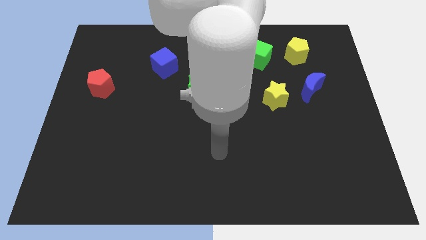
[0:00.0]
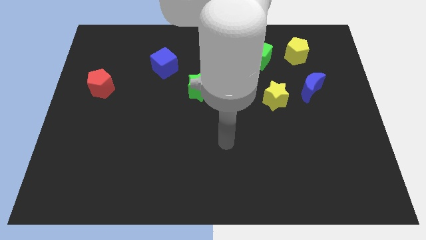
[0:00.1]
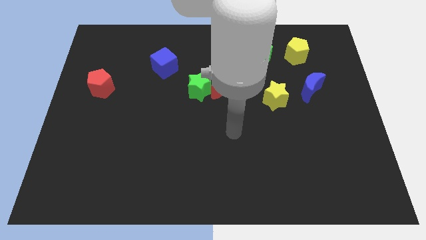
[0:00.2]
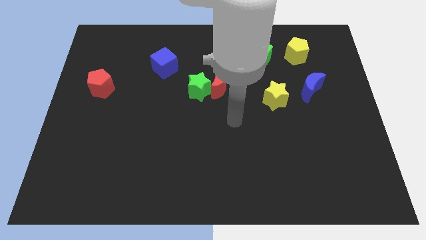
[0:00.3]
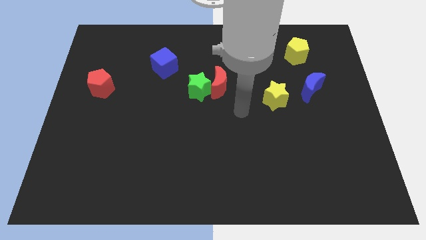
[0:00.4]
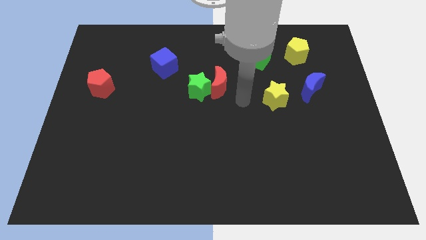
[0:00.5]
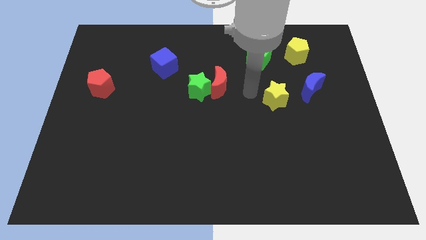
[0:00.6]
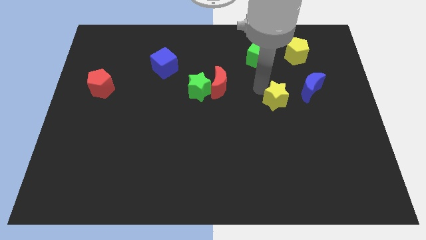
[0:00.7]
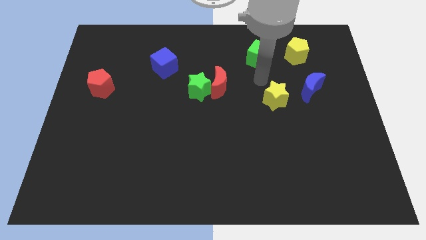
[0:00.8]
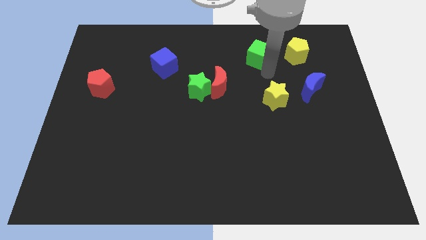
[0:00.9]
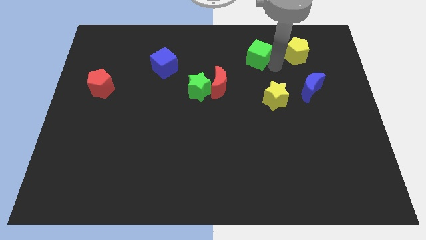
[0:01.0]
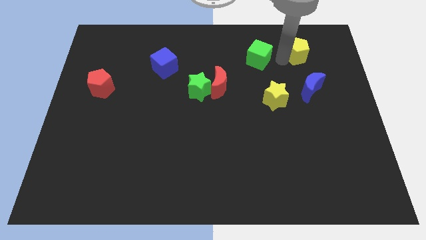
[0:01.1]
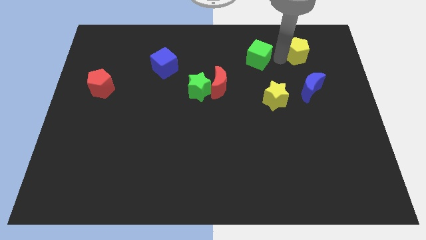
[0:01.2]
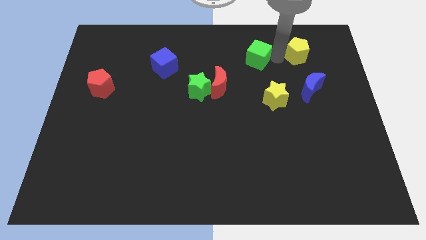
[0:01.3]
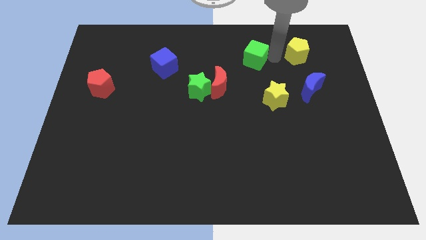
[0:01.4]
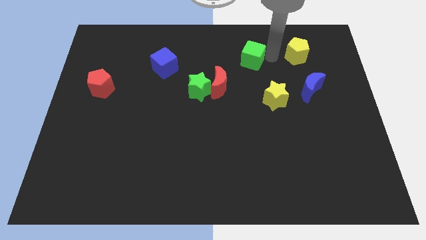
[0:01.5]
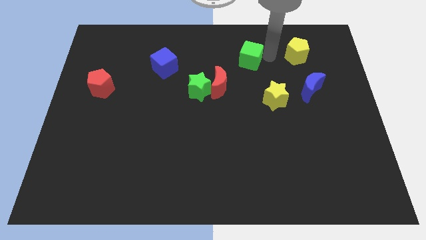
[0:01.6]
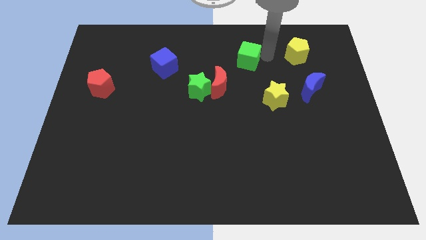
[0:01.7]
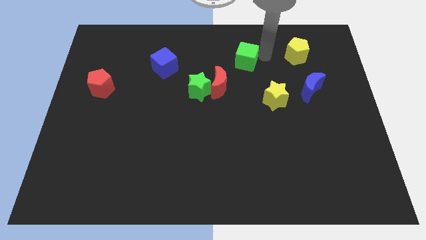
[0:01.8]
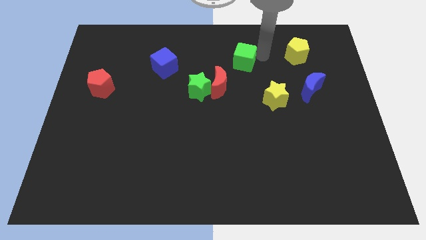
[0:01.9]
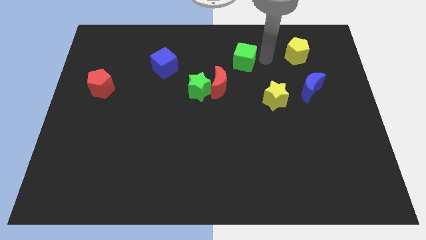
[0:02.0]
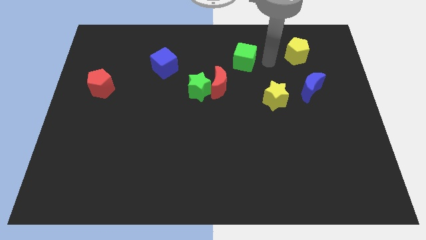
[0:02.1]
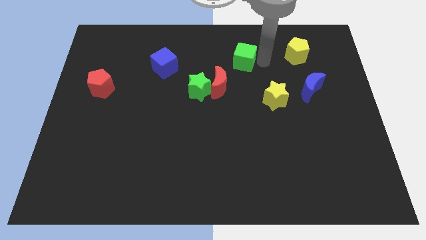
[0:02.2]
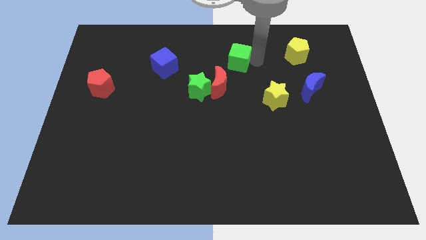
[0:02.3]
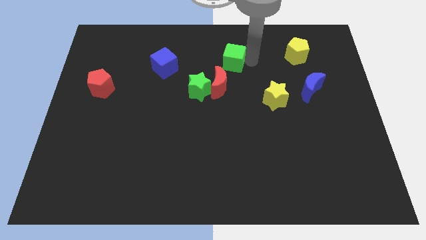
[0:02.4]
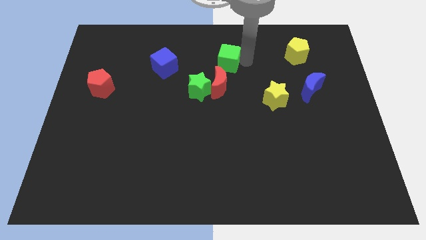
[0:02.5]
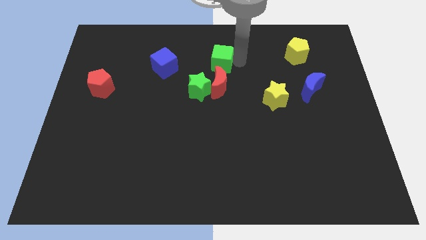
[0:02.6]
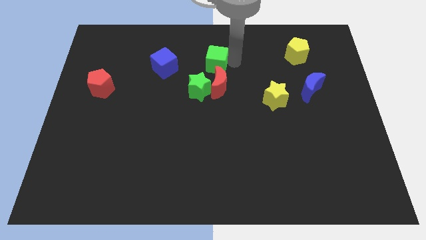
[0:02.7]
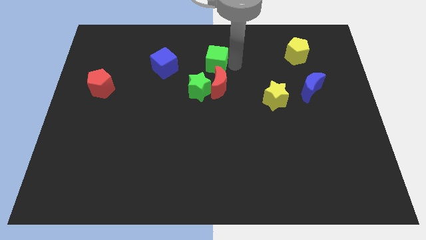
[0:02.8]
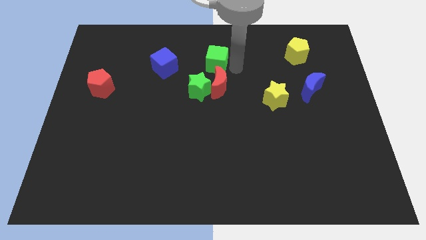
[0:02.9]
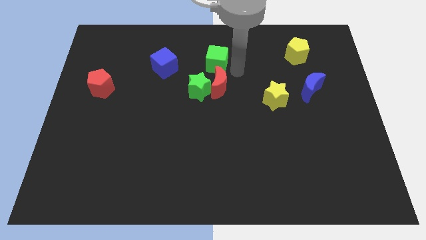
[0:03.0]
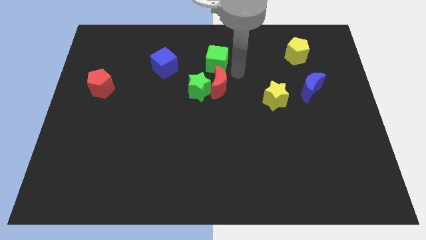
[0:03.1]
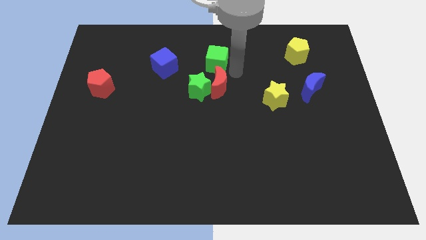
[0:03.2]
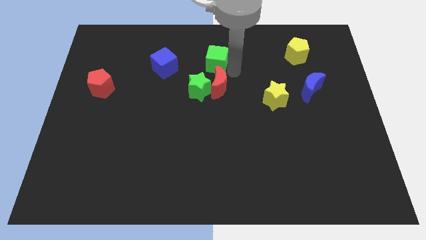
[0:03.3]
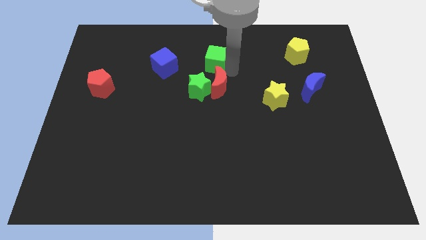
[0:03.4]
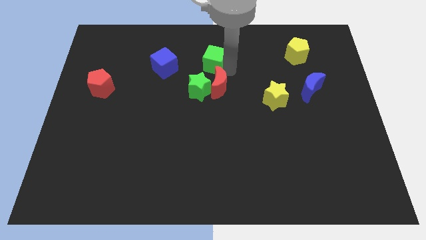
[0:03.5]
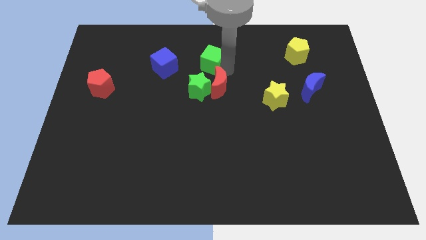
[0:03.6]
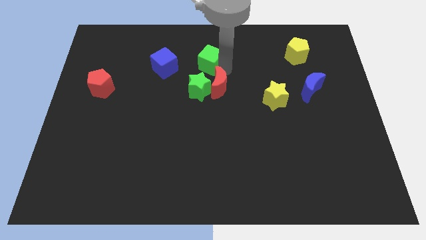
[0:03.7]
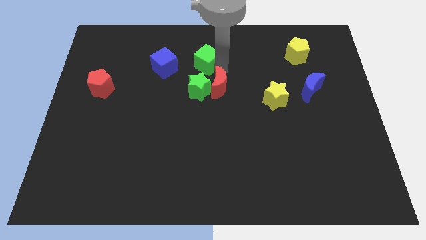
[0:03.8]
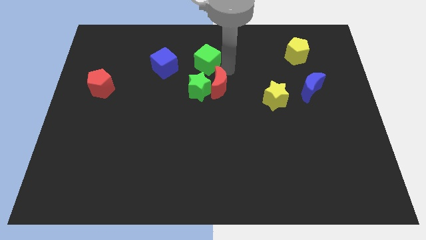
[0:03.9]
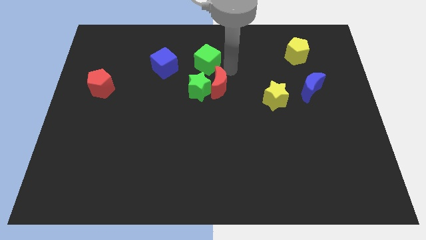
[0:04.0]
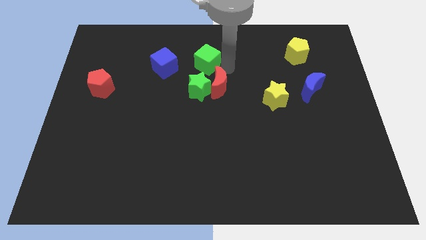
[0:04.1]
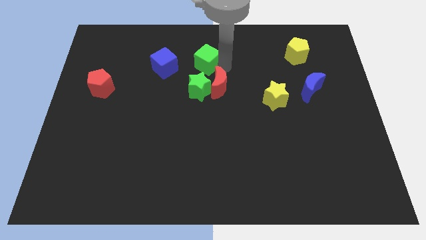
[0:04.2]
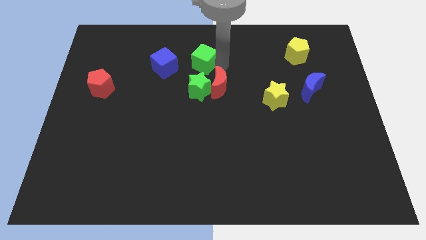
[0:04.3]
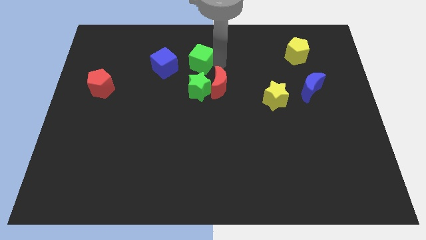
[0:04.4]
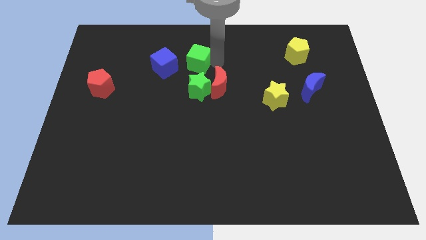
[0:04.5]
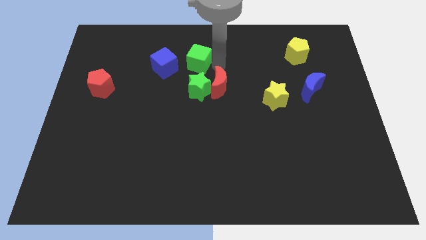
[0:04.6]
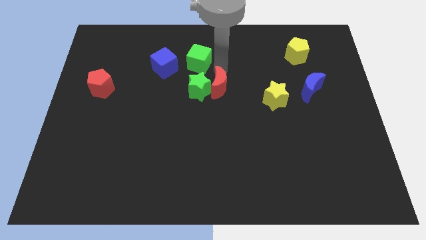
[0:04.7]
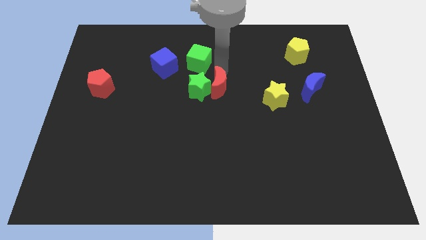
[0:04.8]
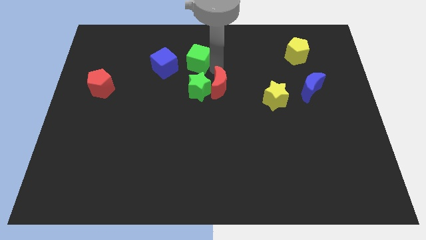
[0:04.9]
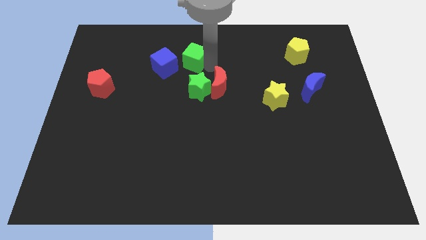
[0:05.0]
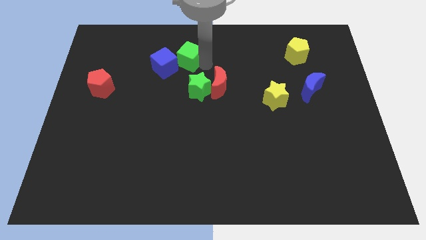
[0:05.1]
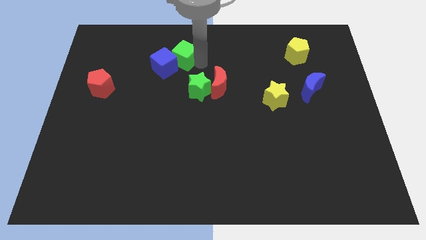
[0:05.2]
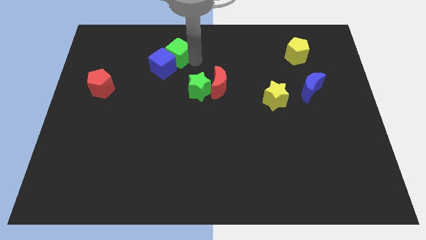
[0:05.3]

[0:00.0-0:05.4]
slide the green cube to the left

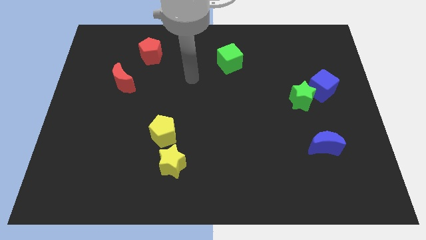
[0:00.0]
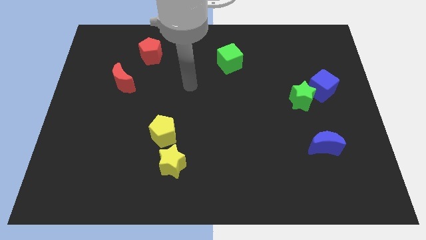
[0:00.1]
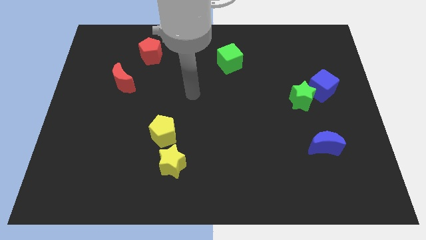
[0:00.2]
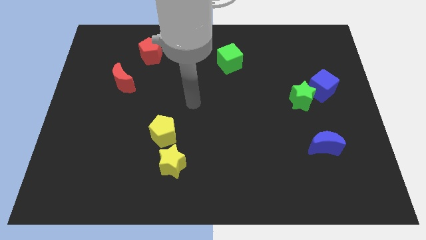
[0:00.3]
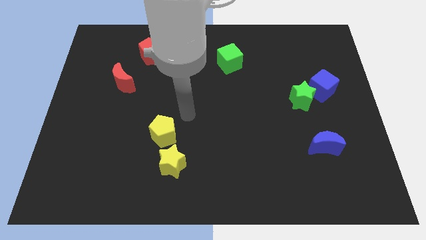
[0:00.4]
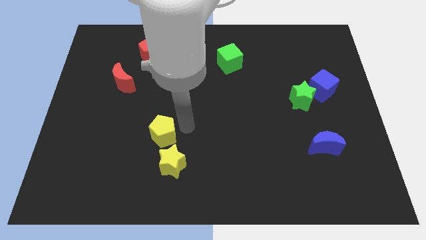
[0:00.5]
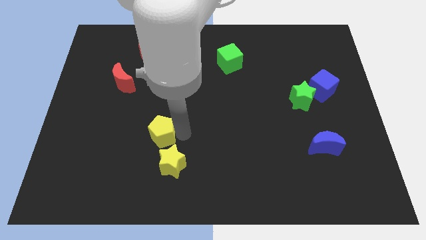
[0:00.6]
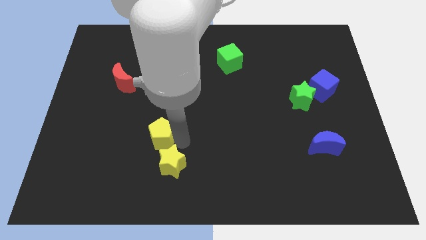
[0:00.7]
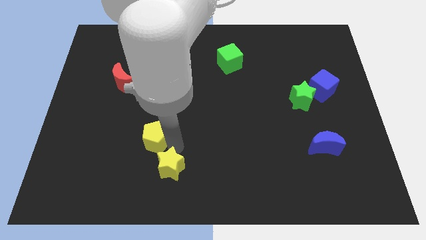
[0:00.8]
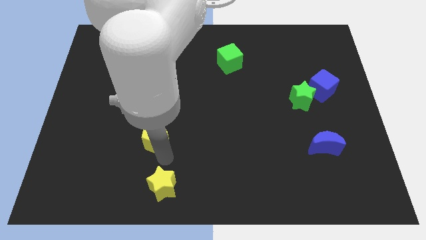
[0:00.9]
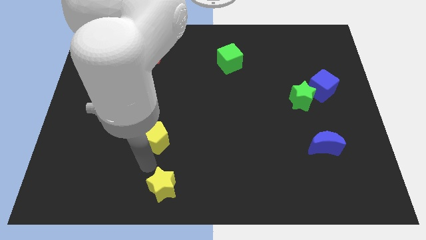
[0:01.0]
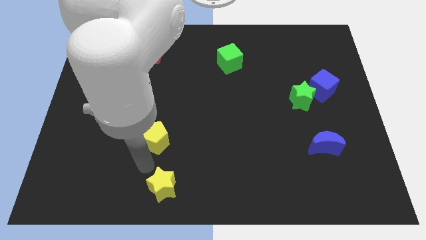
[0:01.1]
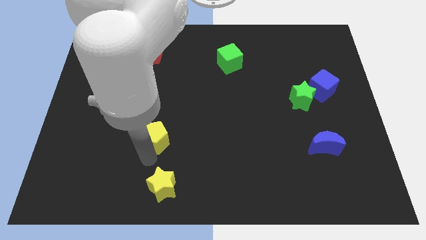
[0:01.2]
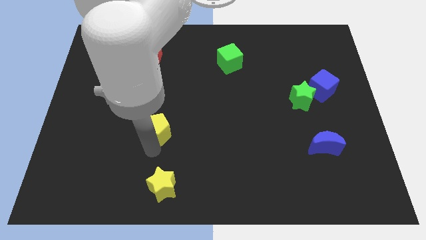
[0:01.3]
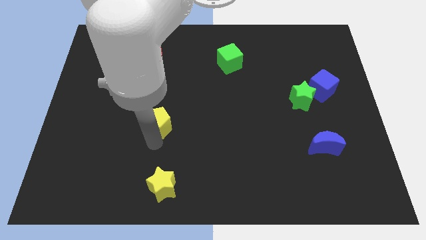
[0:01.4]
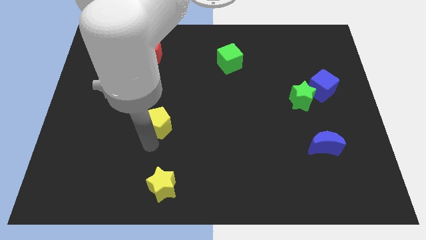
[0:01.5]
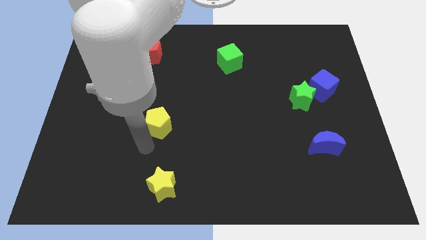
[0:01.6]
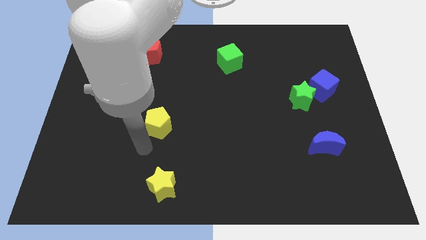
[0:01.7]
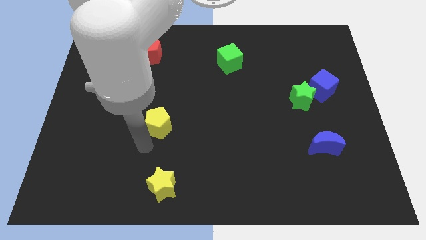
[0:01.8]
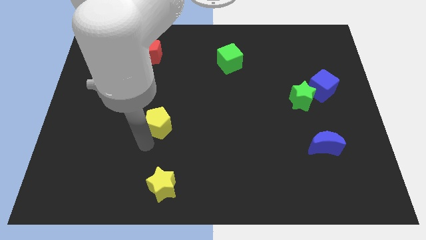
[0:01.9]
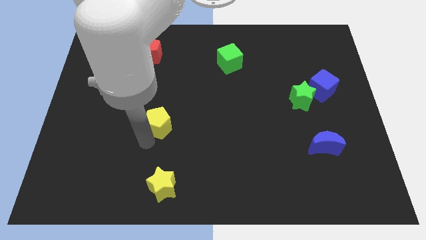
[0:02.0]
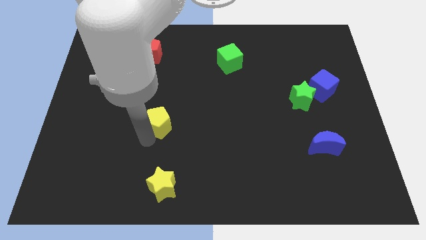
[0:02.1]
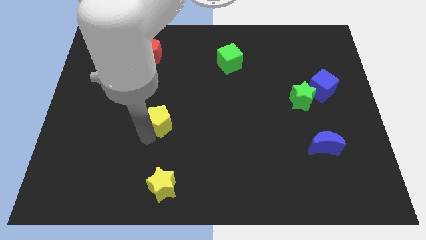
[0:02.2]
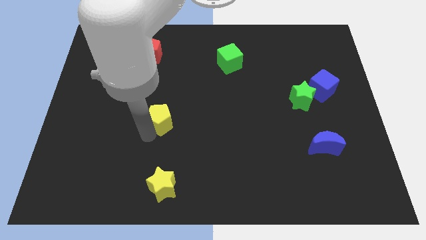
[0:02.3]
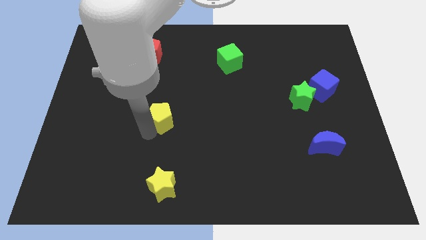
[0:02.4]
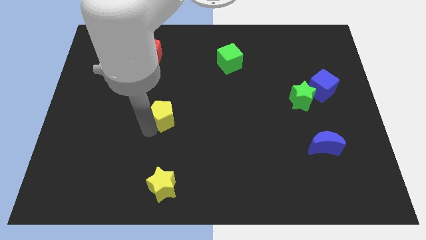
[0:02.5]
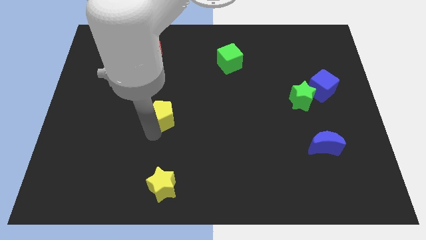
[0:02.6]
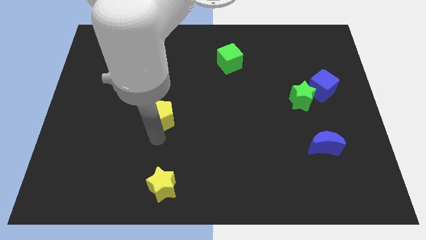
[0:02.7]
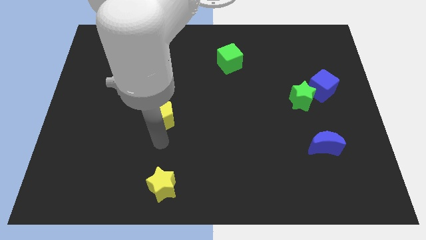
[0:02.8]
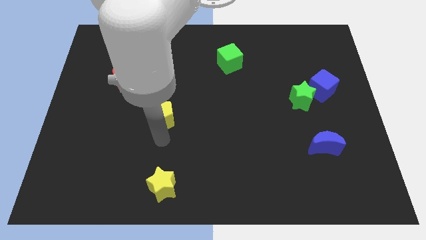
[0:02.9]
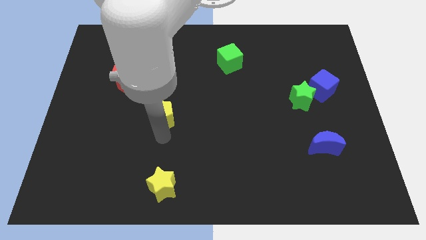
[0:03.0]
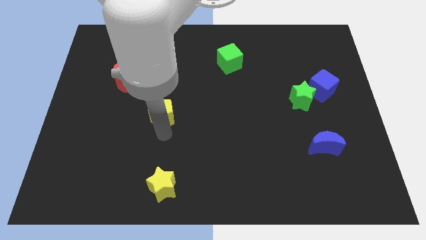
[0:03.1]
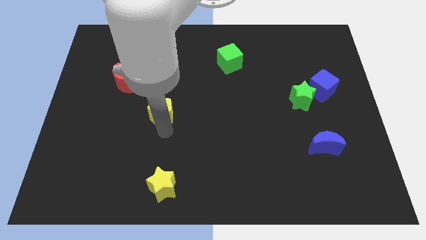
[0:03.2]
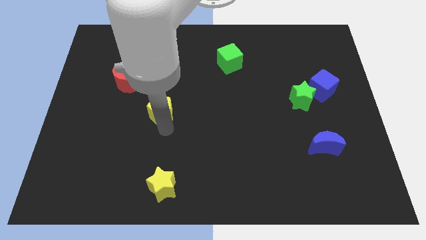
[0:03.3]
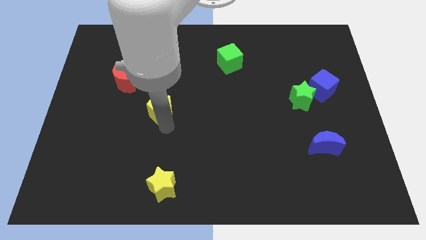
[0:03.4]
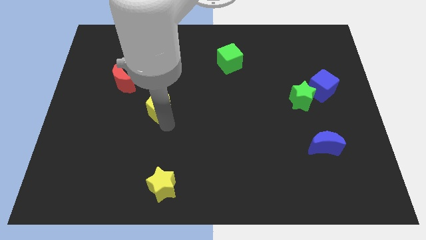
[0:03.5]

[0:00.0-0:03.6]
move the yellow pentagon a little up
